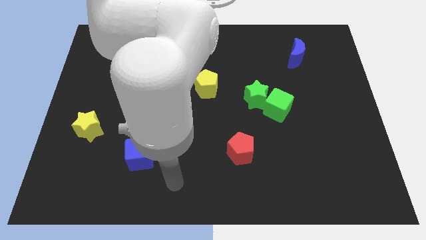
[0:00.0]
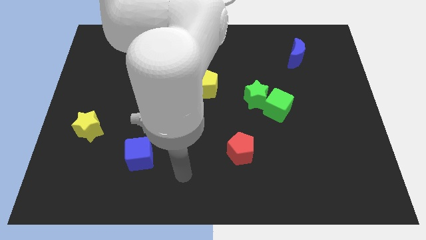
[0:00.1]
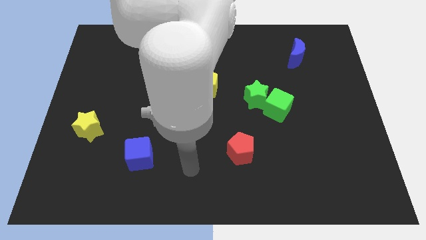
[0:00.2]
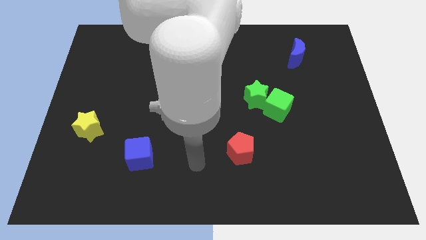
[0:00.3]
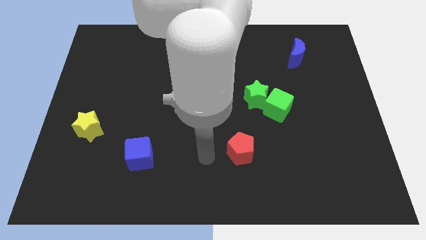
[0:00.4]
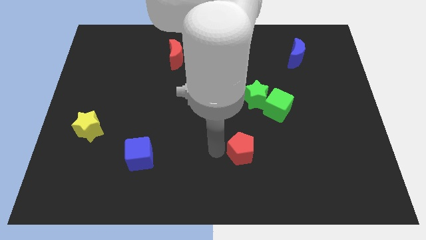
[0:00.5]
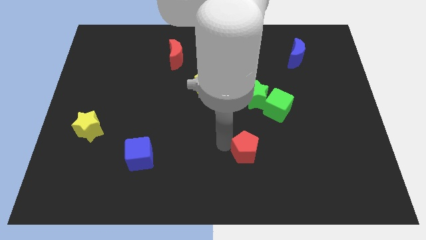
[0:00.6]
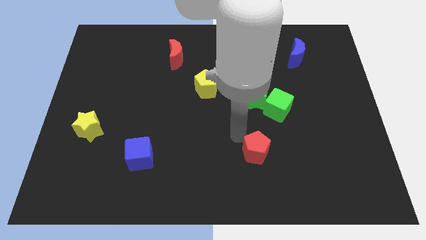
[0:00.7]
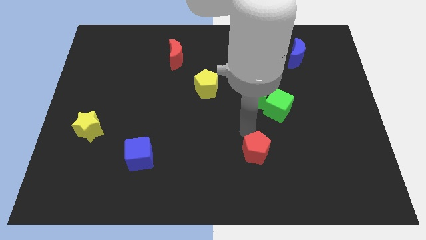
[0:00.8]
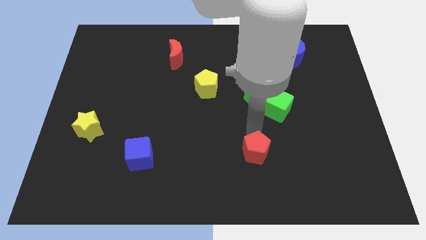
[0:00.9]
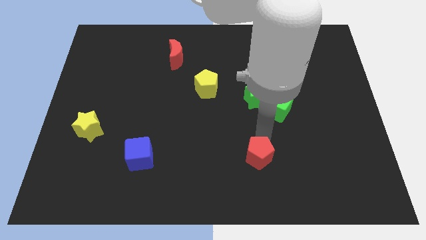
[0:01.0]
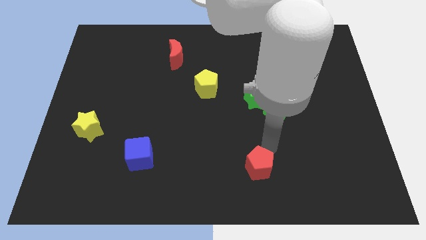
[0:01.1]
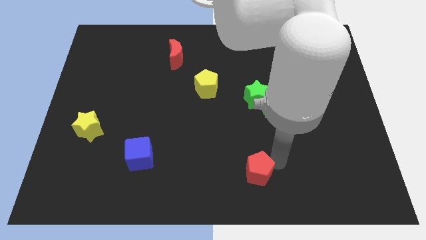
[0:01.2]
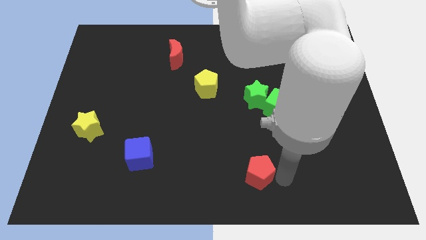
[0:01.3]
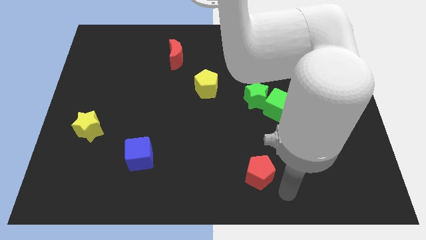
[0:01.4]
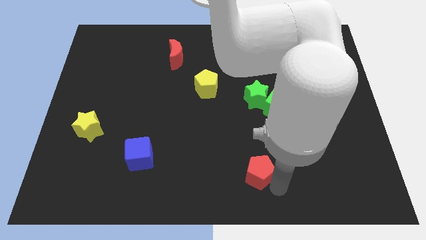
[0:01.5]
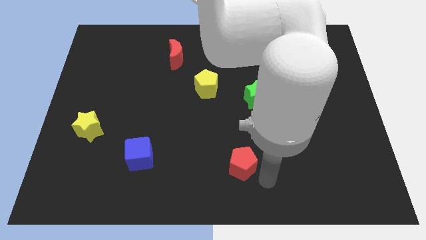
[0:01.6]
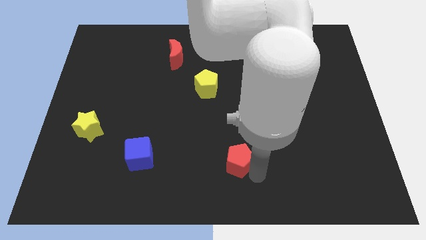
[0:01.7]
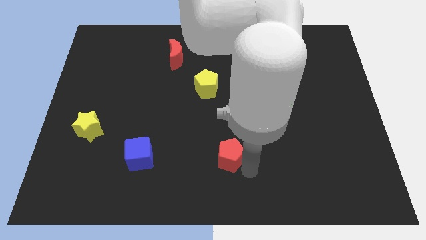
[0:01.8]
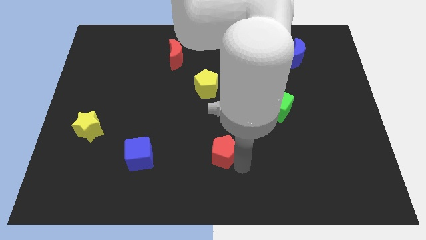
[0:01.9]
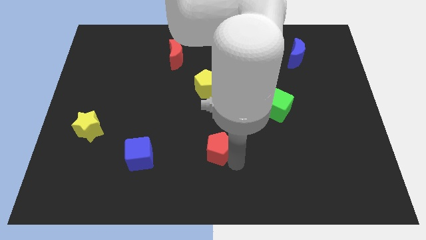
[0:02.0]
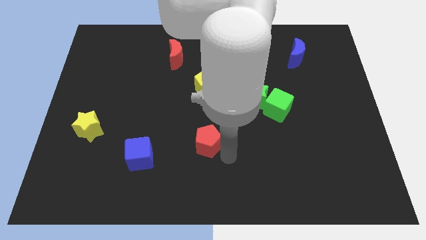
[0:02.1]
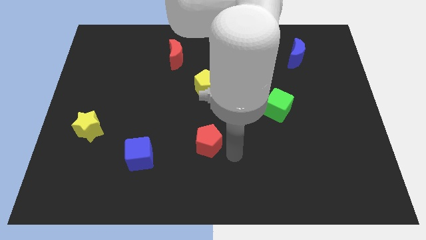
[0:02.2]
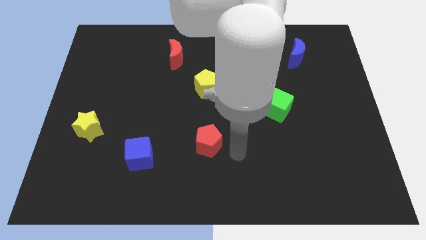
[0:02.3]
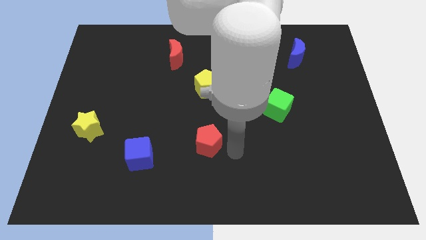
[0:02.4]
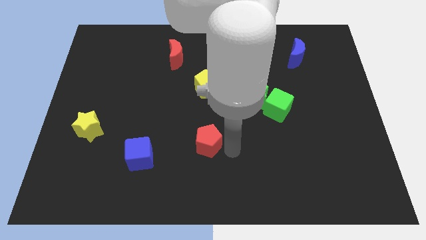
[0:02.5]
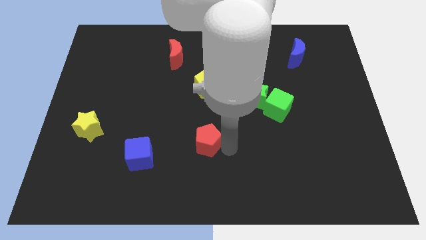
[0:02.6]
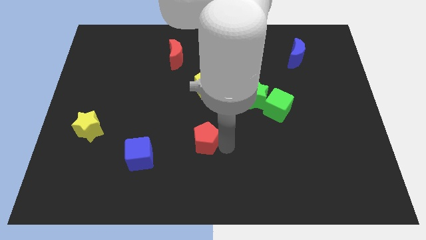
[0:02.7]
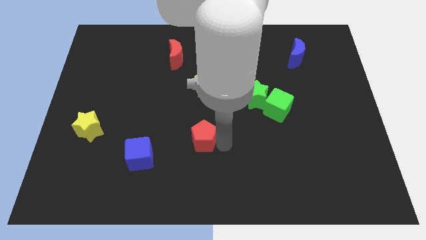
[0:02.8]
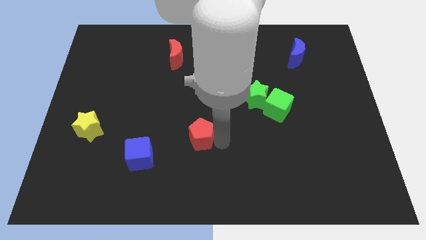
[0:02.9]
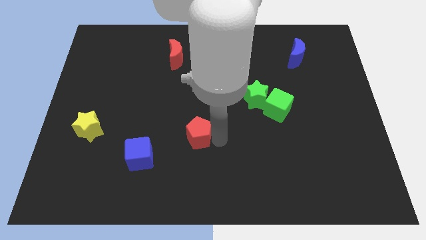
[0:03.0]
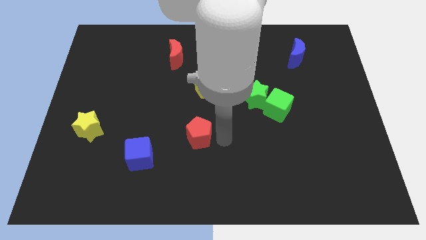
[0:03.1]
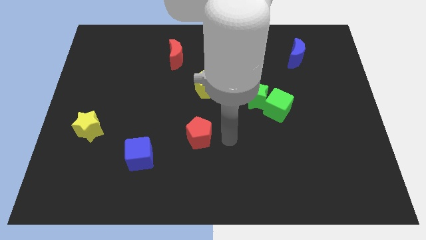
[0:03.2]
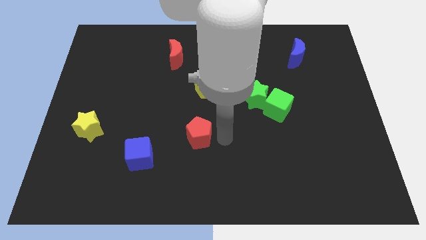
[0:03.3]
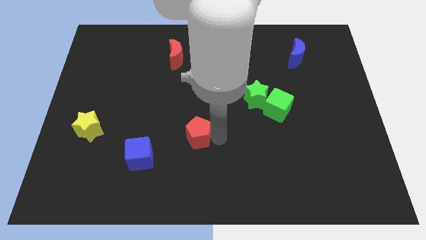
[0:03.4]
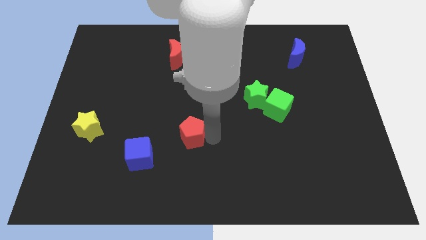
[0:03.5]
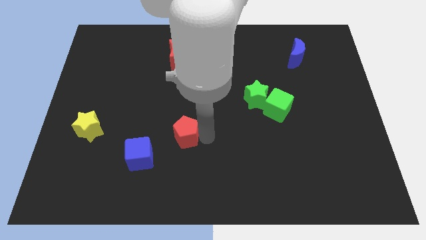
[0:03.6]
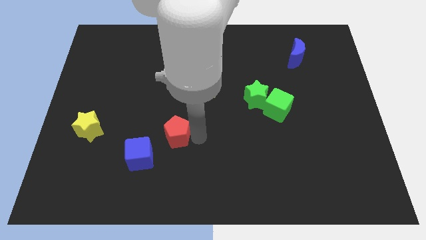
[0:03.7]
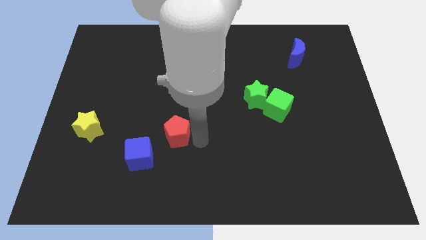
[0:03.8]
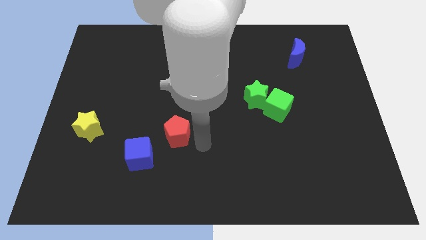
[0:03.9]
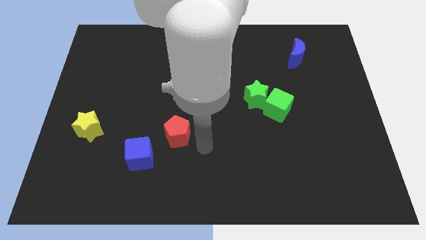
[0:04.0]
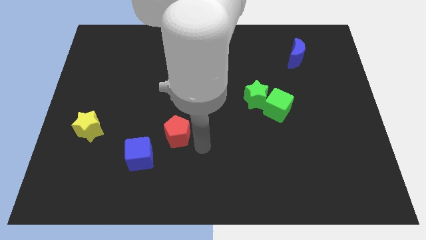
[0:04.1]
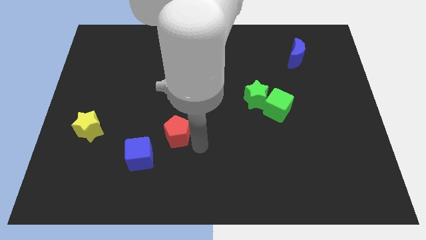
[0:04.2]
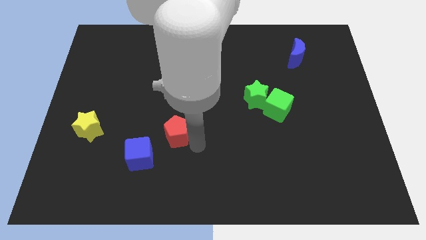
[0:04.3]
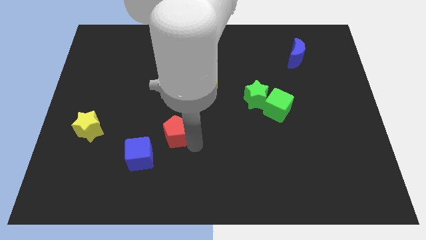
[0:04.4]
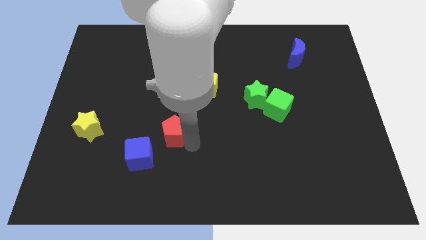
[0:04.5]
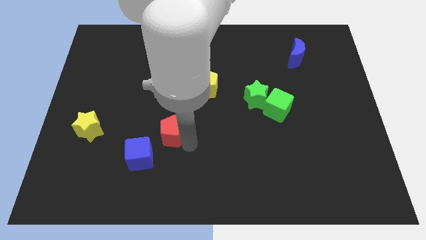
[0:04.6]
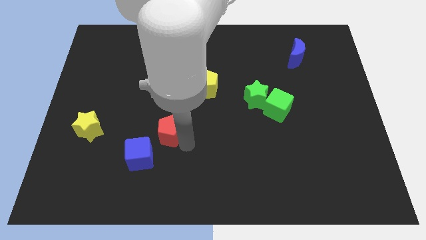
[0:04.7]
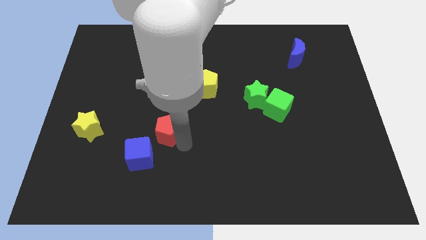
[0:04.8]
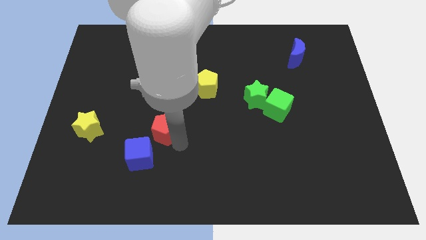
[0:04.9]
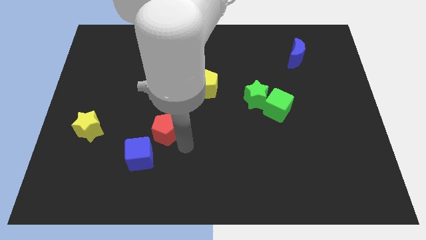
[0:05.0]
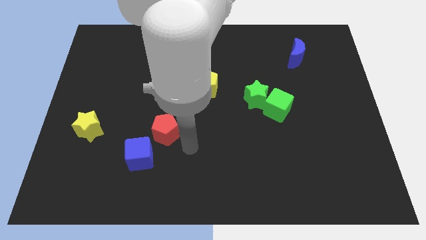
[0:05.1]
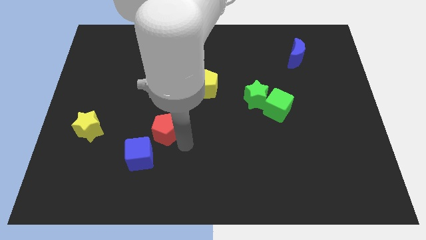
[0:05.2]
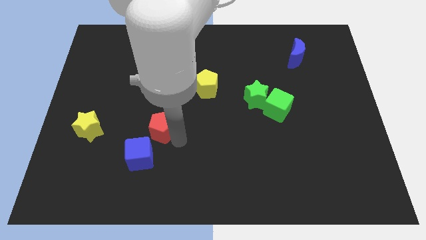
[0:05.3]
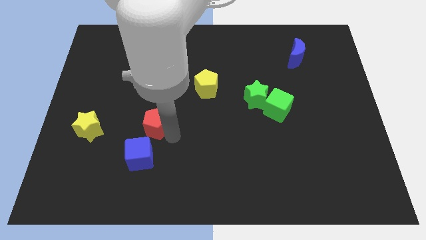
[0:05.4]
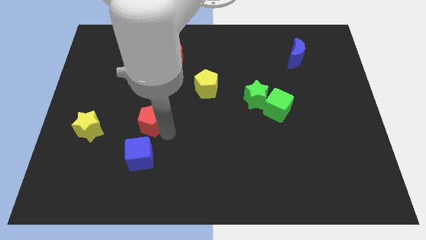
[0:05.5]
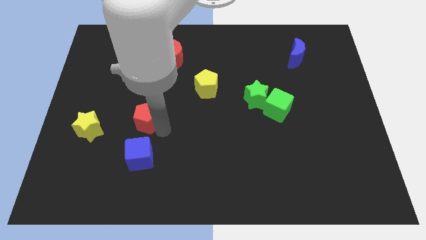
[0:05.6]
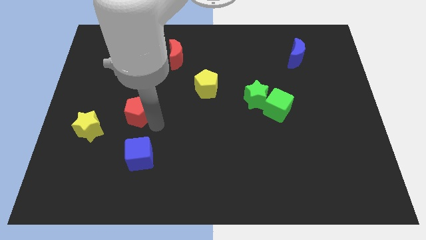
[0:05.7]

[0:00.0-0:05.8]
slide the red pentagon diagonally up and to the right of the yellow star

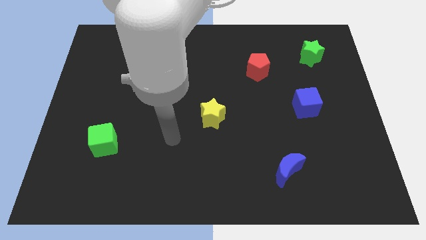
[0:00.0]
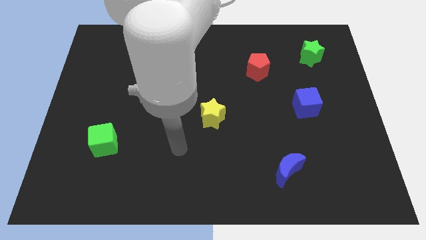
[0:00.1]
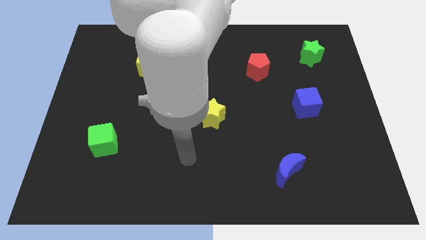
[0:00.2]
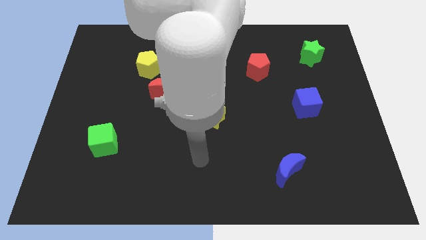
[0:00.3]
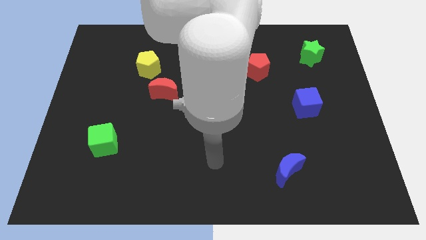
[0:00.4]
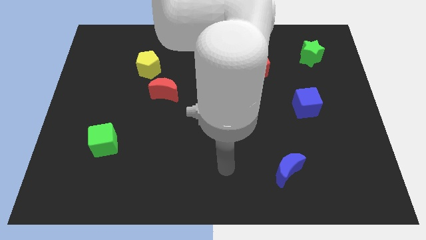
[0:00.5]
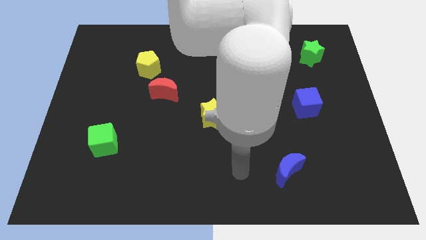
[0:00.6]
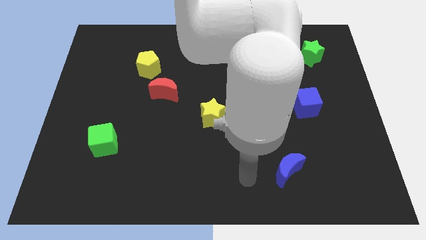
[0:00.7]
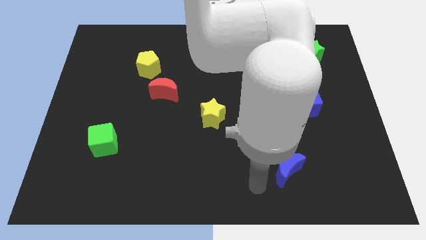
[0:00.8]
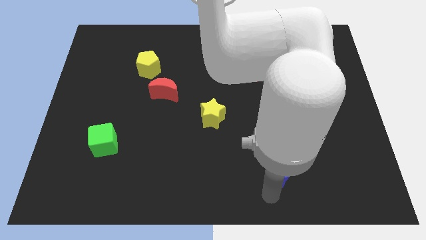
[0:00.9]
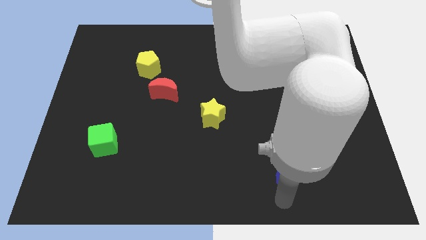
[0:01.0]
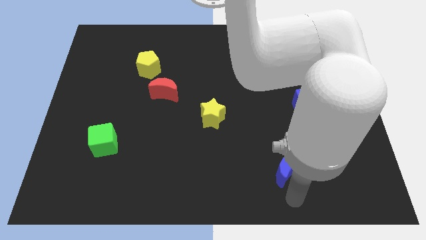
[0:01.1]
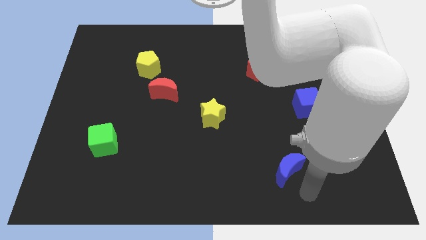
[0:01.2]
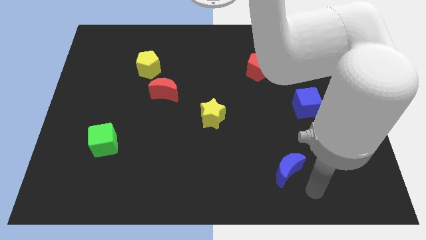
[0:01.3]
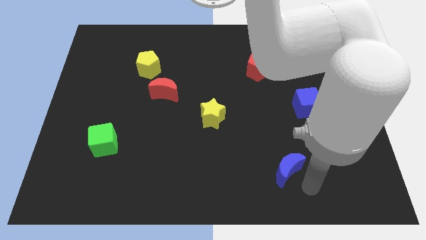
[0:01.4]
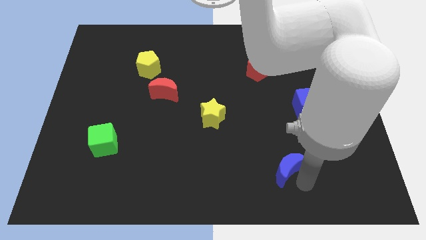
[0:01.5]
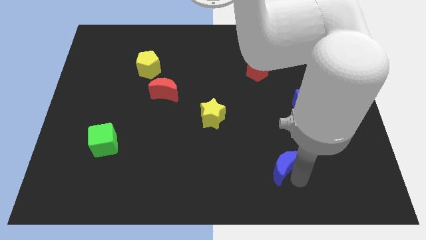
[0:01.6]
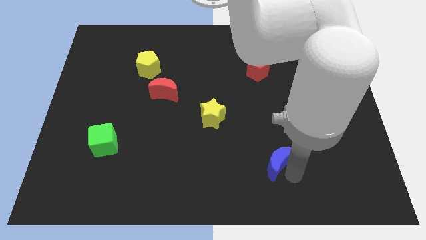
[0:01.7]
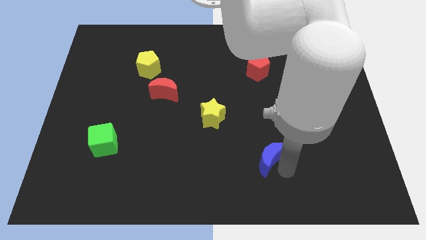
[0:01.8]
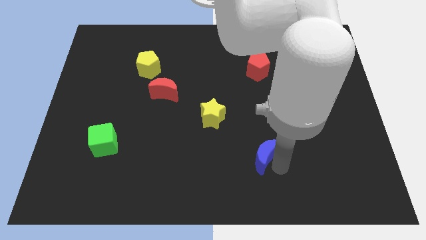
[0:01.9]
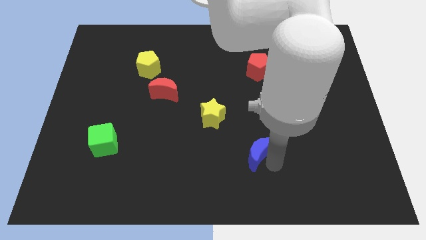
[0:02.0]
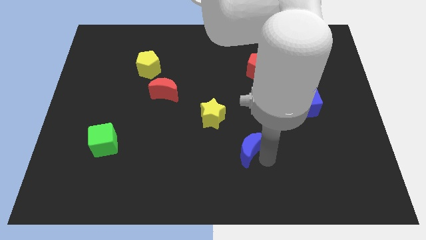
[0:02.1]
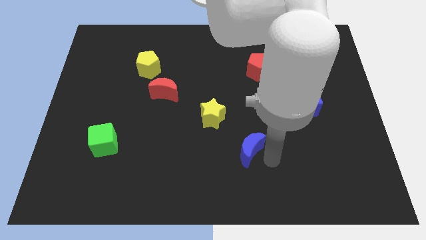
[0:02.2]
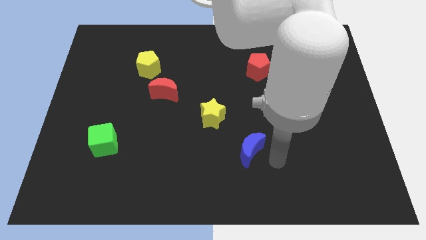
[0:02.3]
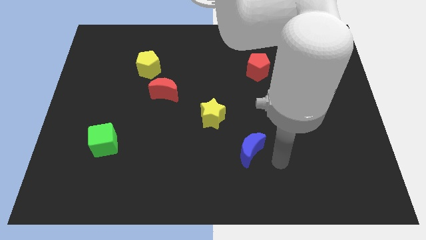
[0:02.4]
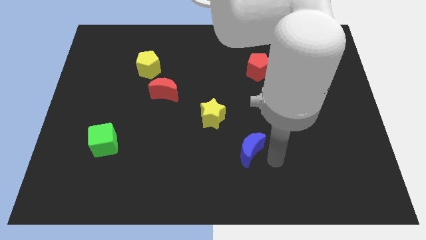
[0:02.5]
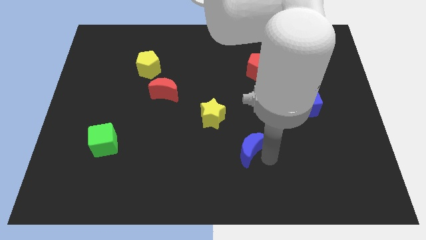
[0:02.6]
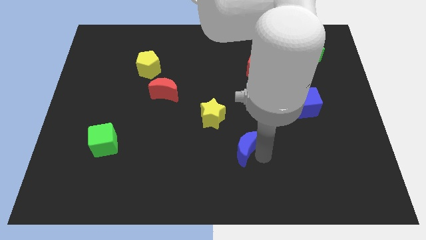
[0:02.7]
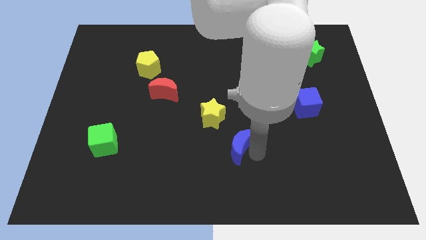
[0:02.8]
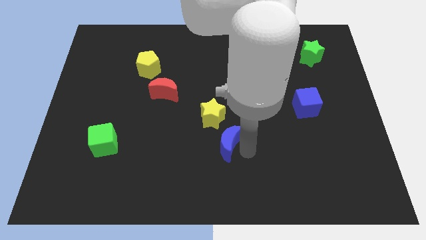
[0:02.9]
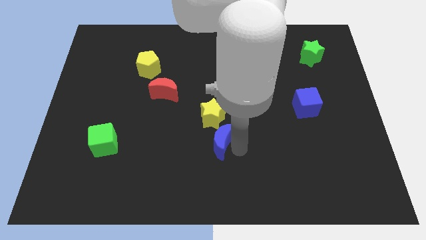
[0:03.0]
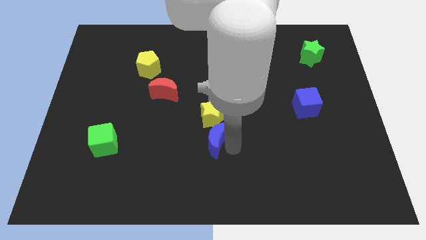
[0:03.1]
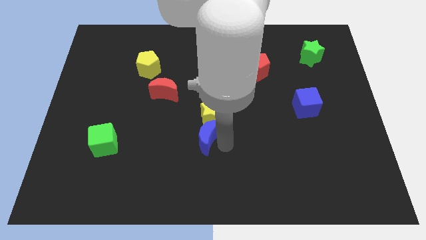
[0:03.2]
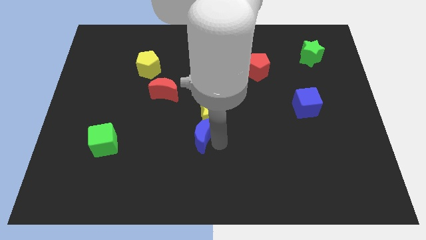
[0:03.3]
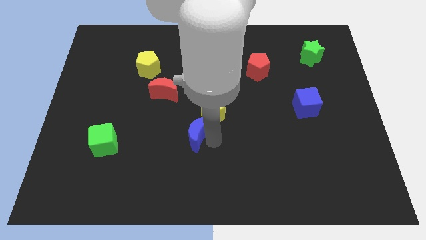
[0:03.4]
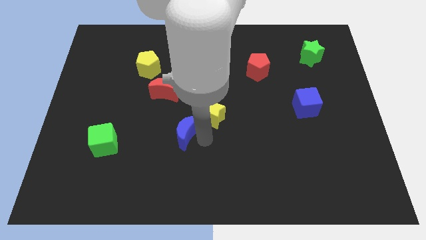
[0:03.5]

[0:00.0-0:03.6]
move the blue moon to the left side of the yellow star
